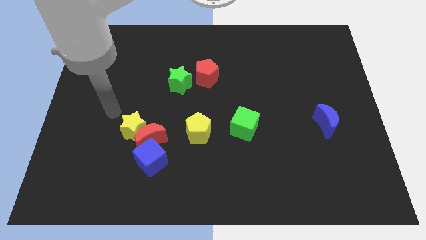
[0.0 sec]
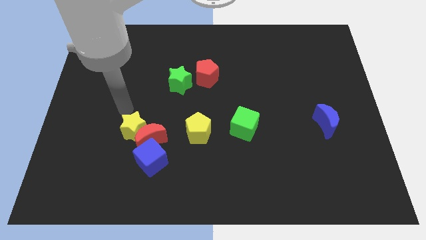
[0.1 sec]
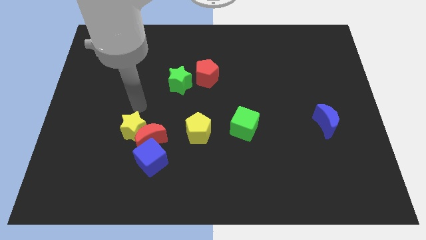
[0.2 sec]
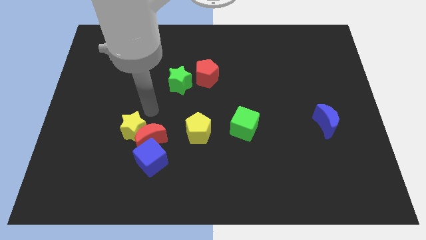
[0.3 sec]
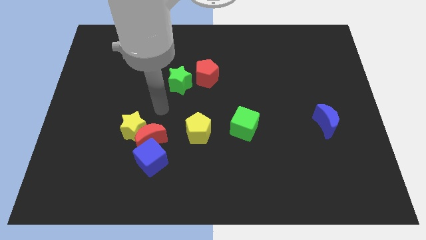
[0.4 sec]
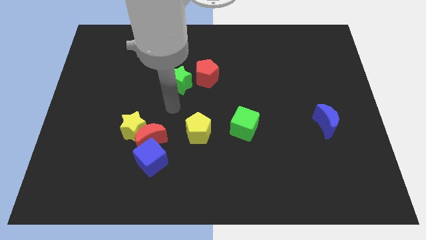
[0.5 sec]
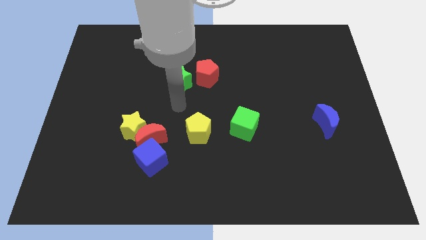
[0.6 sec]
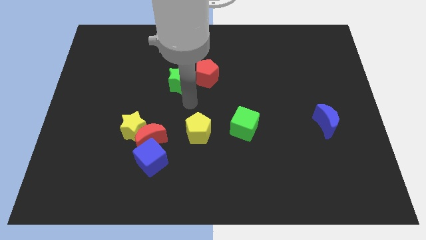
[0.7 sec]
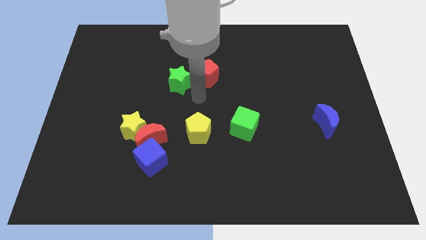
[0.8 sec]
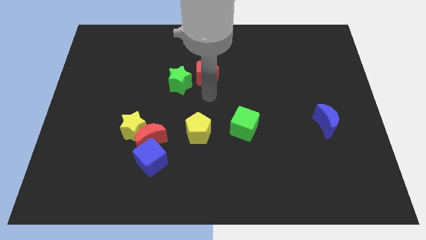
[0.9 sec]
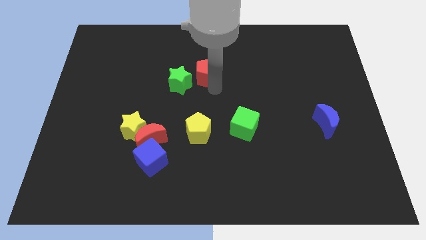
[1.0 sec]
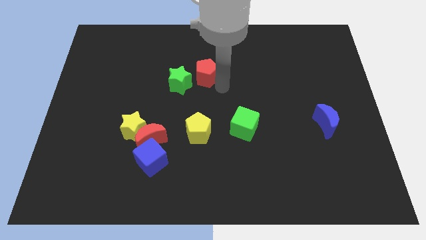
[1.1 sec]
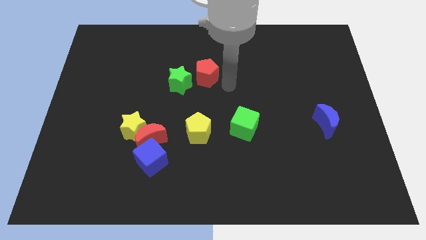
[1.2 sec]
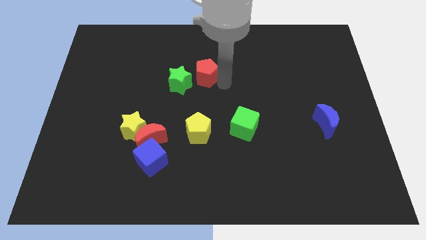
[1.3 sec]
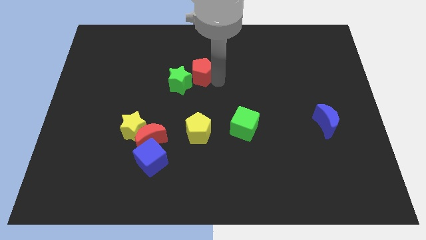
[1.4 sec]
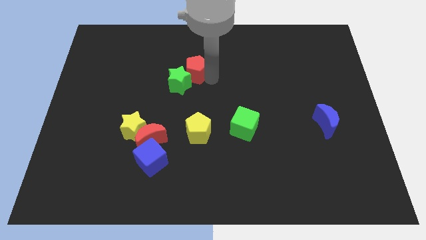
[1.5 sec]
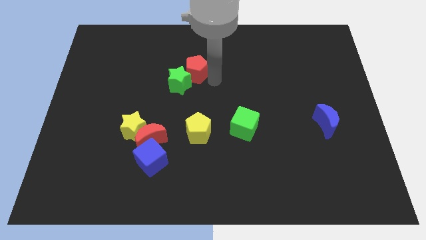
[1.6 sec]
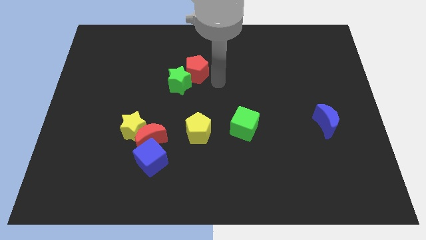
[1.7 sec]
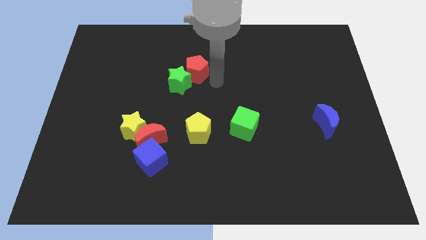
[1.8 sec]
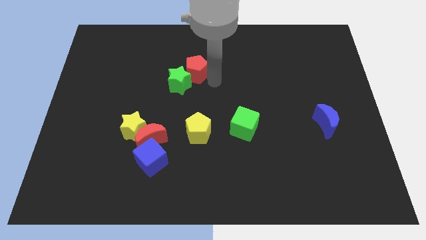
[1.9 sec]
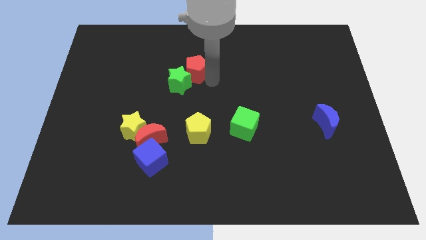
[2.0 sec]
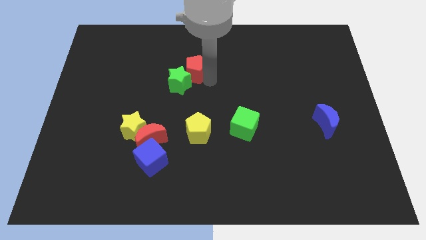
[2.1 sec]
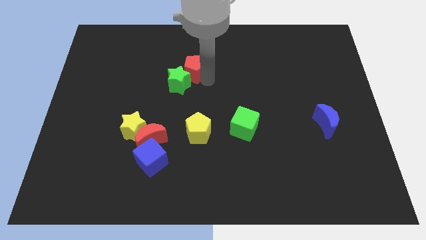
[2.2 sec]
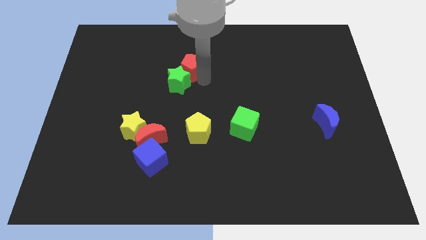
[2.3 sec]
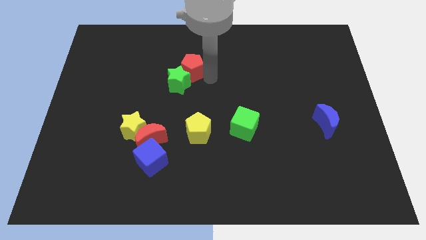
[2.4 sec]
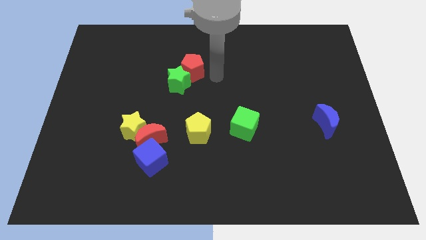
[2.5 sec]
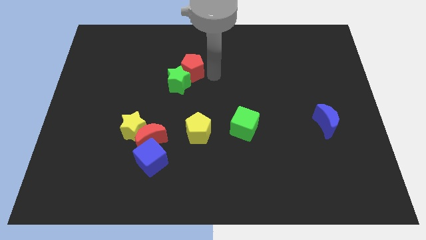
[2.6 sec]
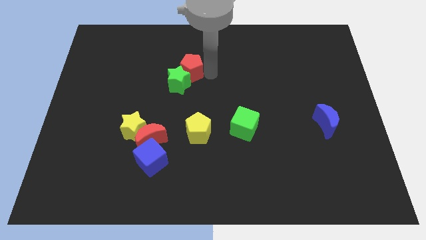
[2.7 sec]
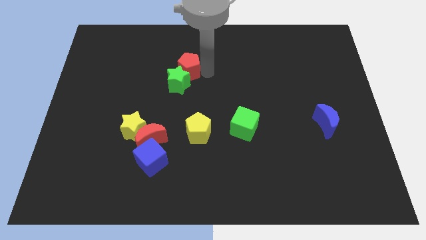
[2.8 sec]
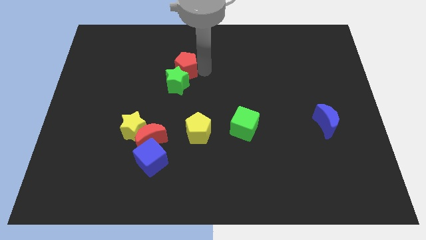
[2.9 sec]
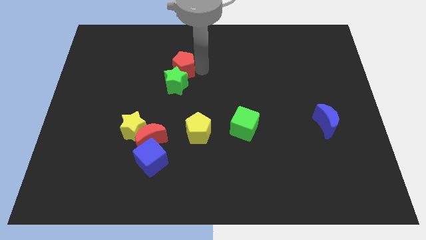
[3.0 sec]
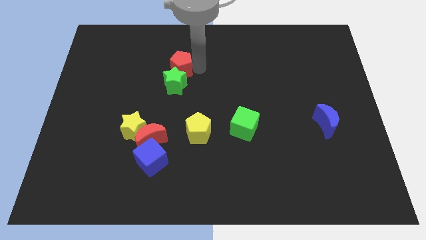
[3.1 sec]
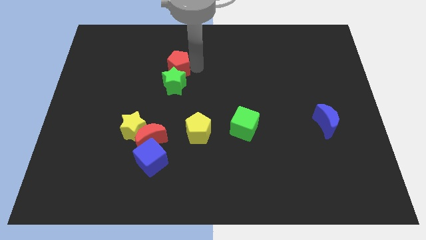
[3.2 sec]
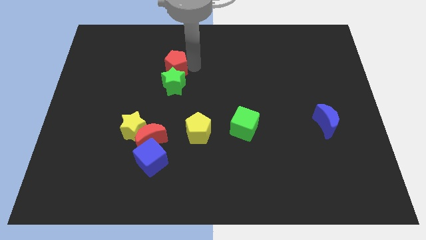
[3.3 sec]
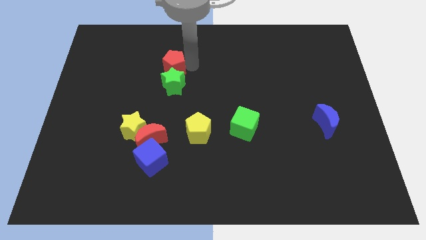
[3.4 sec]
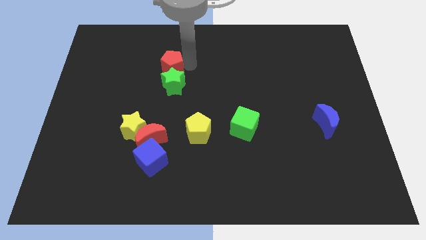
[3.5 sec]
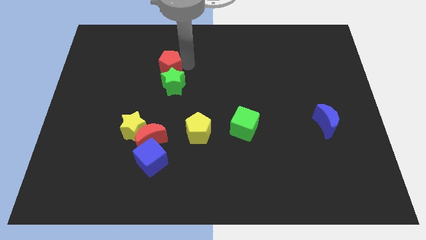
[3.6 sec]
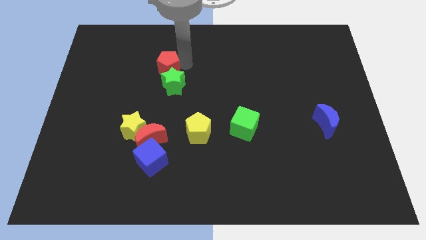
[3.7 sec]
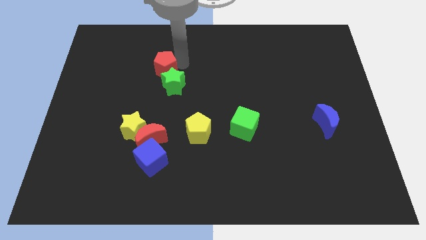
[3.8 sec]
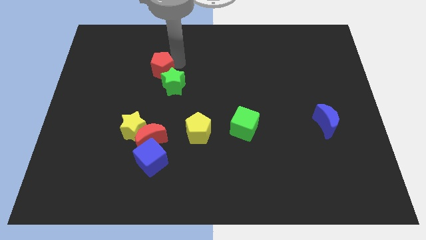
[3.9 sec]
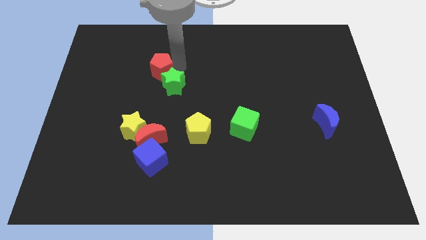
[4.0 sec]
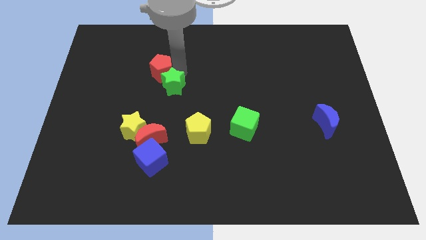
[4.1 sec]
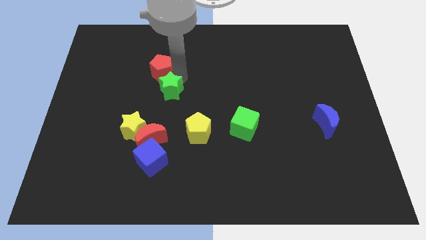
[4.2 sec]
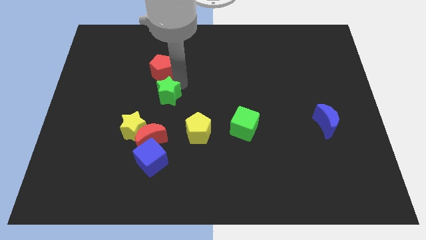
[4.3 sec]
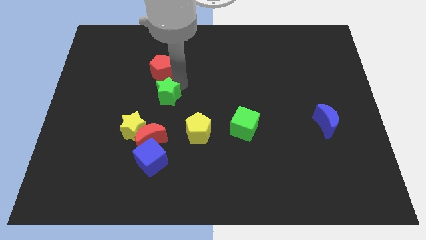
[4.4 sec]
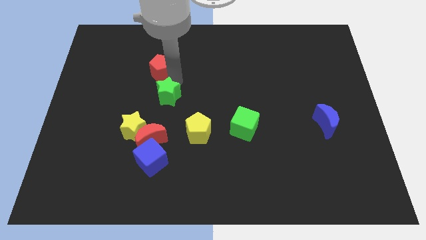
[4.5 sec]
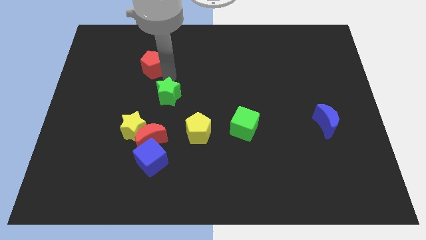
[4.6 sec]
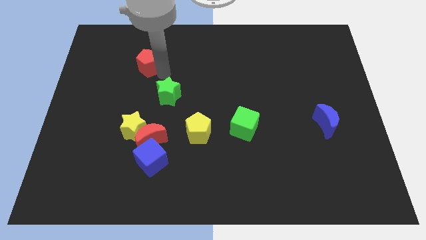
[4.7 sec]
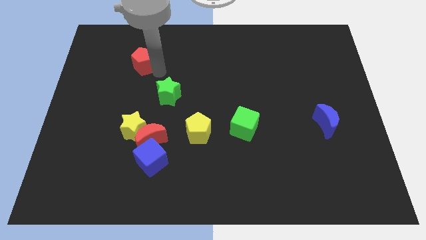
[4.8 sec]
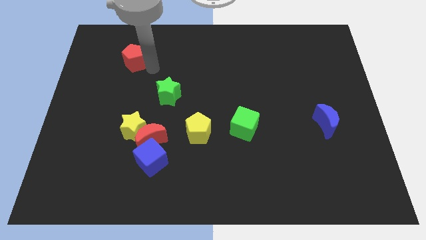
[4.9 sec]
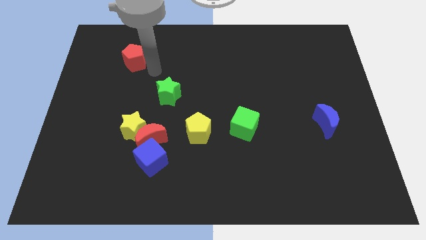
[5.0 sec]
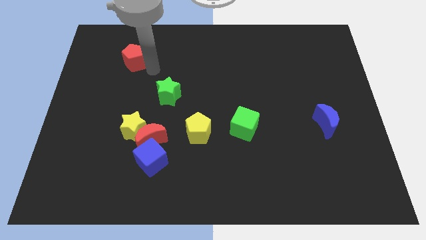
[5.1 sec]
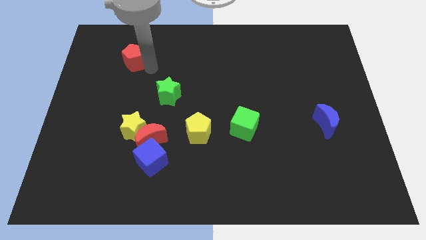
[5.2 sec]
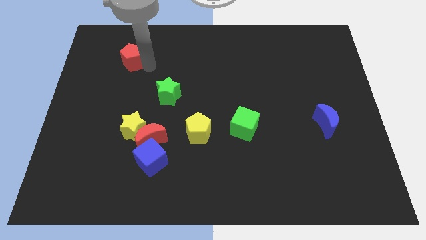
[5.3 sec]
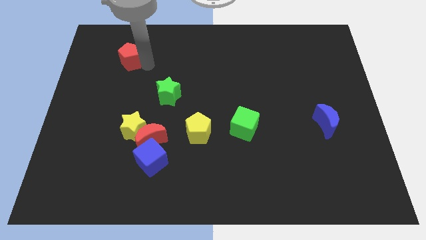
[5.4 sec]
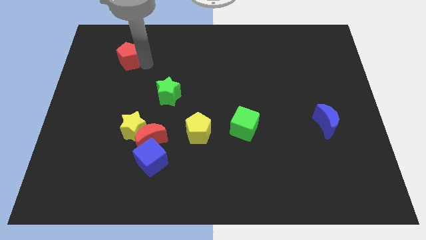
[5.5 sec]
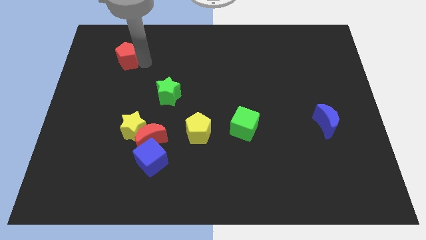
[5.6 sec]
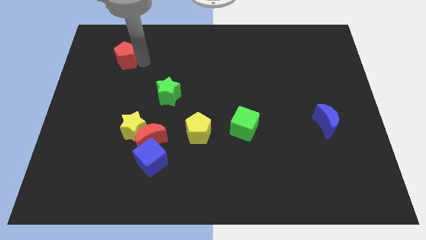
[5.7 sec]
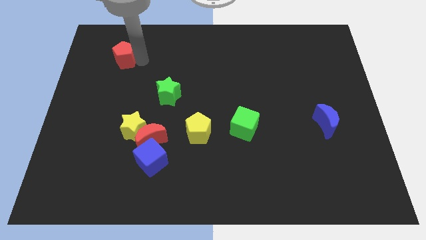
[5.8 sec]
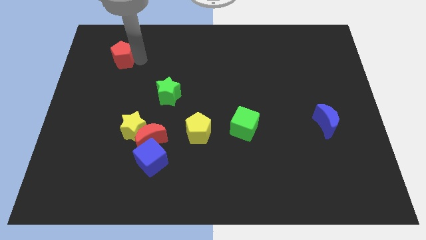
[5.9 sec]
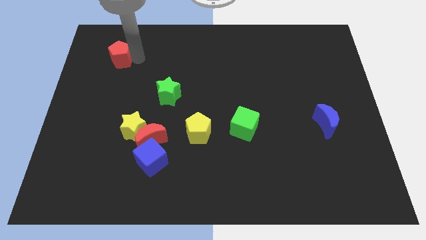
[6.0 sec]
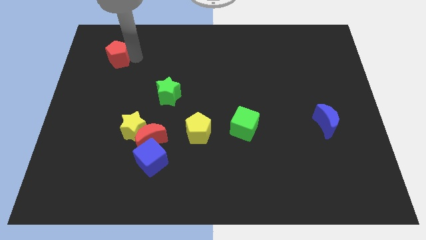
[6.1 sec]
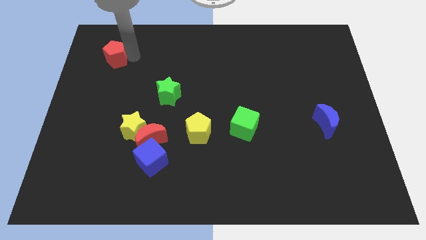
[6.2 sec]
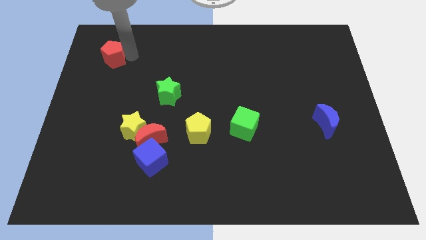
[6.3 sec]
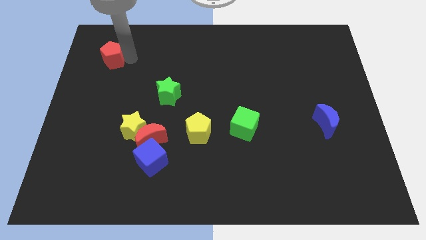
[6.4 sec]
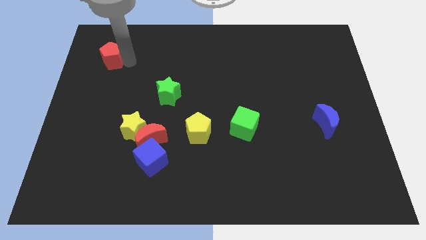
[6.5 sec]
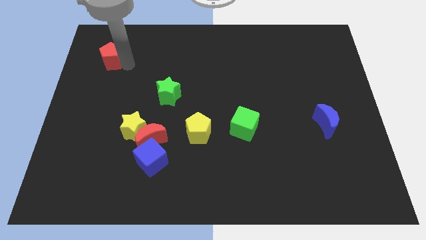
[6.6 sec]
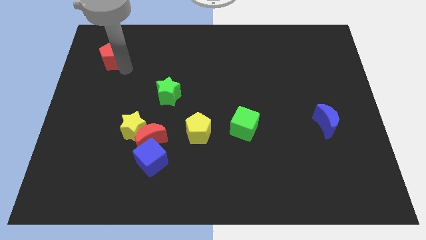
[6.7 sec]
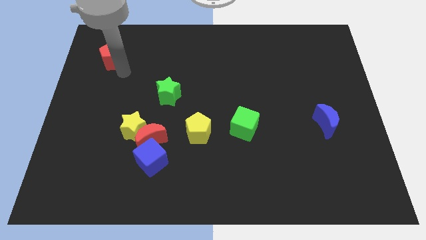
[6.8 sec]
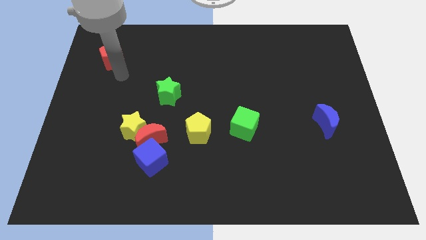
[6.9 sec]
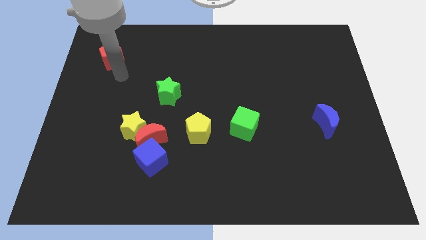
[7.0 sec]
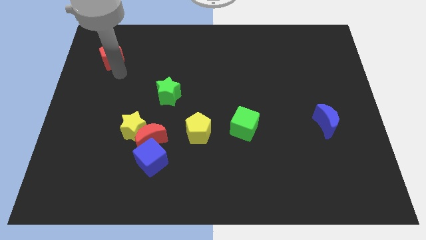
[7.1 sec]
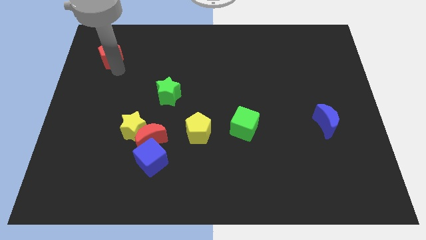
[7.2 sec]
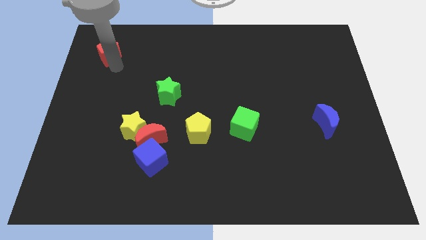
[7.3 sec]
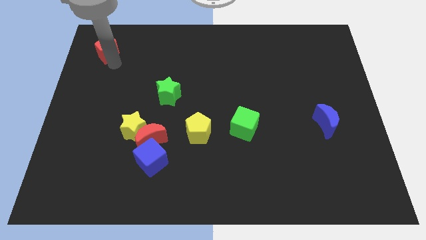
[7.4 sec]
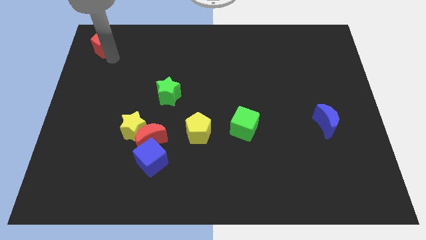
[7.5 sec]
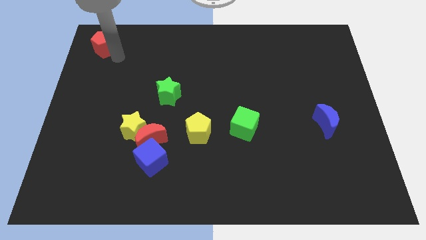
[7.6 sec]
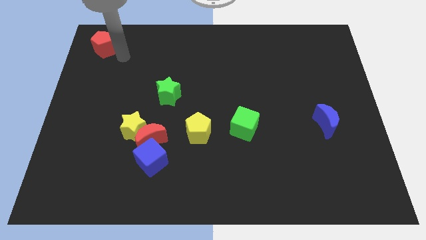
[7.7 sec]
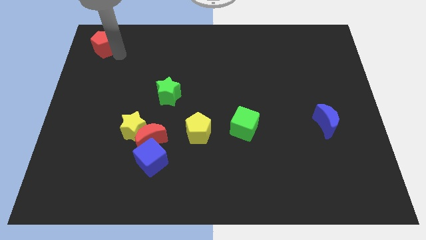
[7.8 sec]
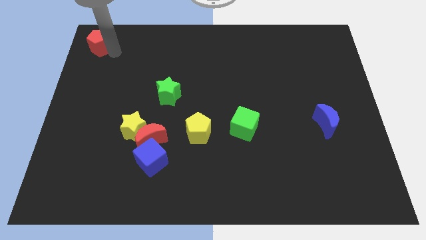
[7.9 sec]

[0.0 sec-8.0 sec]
push the red pentagon to the top left
